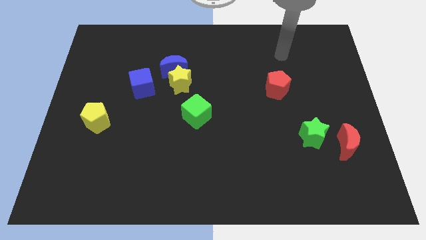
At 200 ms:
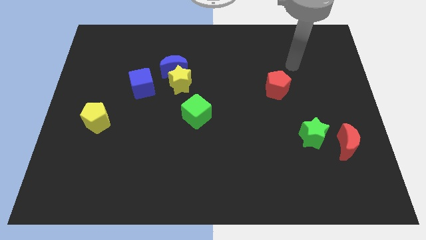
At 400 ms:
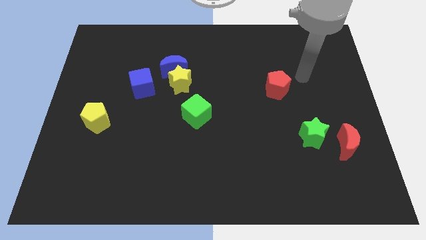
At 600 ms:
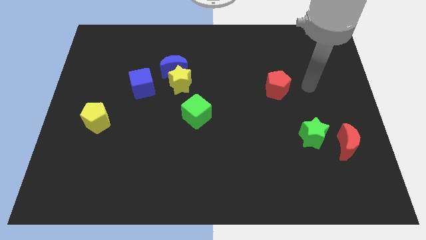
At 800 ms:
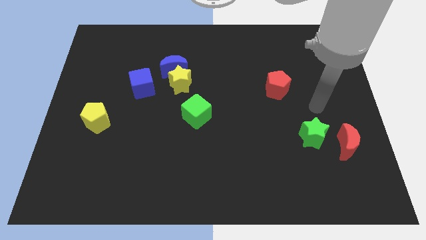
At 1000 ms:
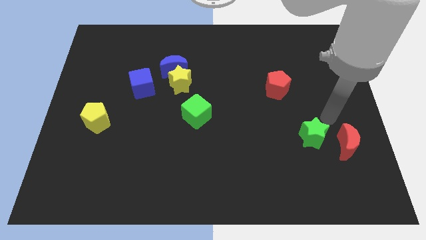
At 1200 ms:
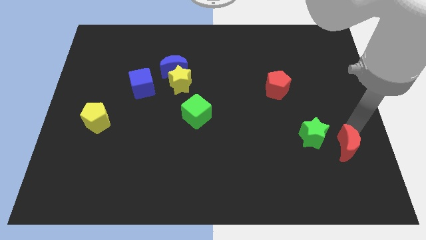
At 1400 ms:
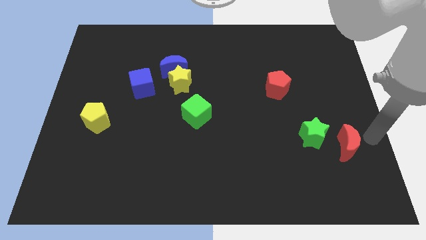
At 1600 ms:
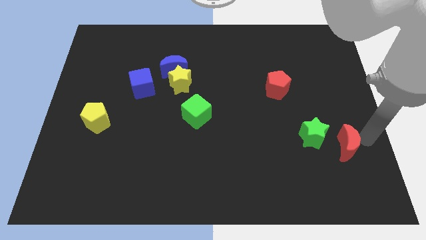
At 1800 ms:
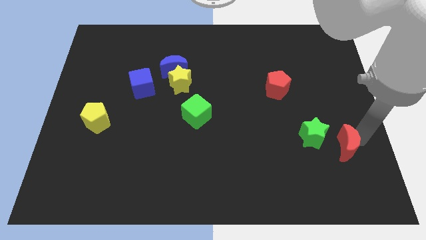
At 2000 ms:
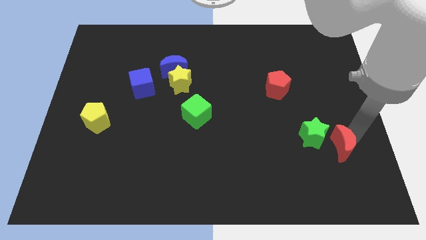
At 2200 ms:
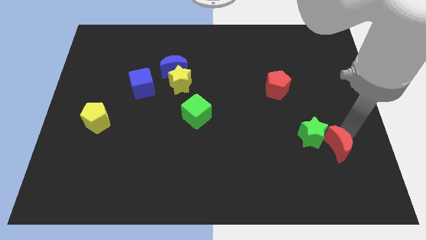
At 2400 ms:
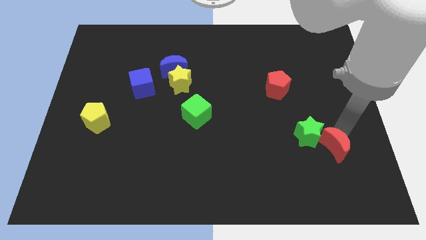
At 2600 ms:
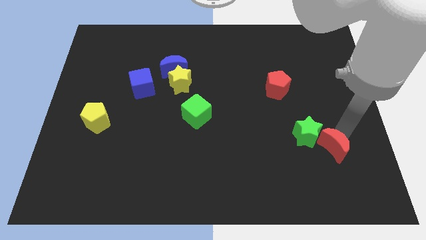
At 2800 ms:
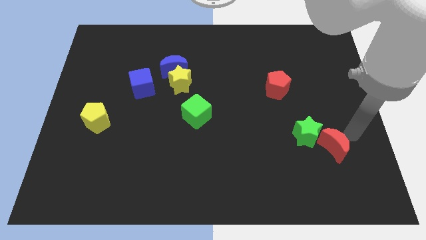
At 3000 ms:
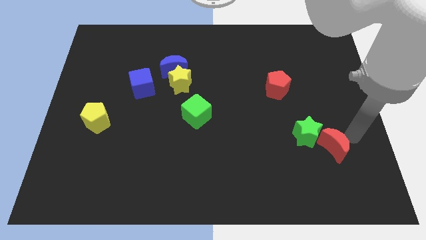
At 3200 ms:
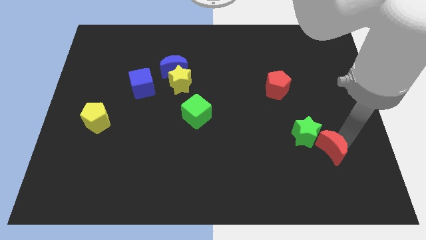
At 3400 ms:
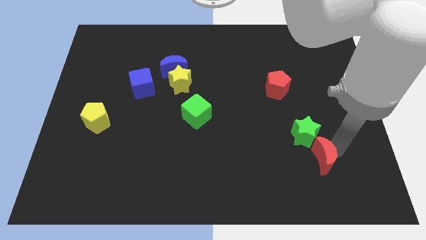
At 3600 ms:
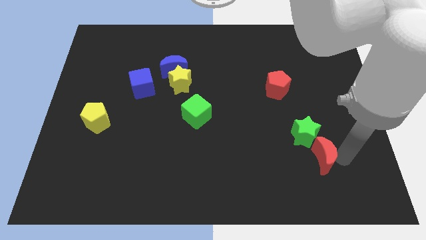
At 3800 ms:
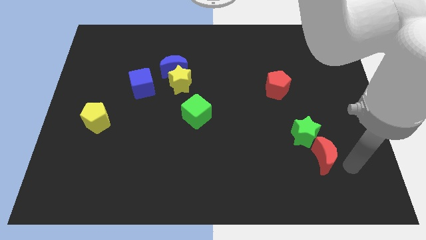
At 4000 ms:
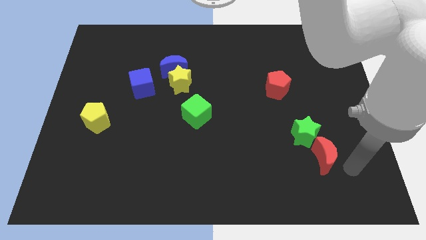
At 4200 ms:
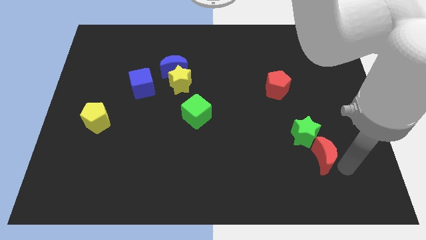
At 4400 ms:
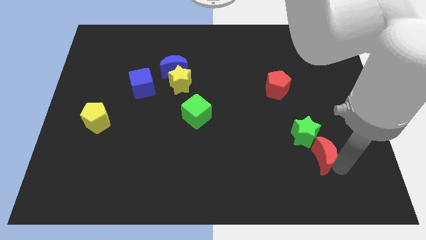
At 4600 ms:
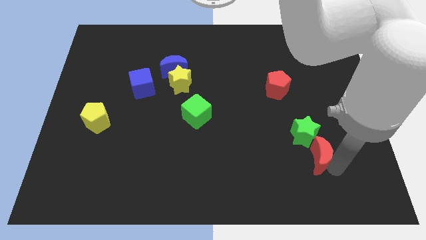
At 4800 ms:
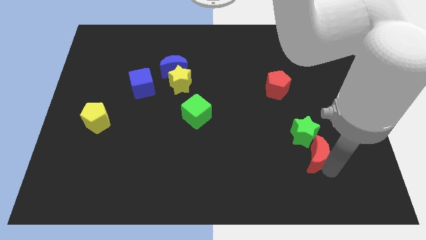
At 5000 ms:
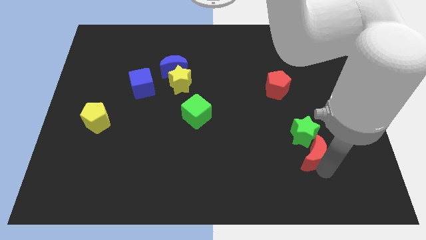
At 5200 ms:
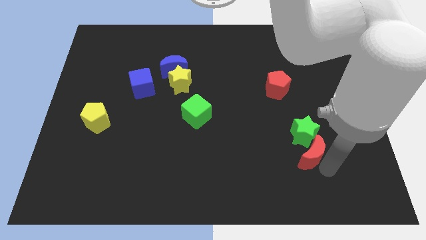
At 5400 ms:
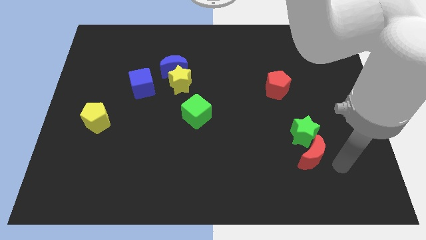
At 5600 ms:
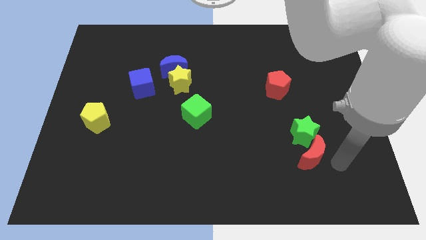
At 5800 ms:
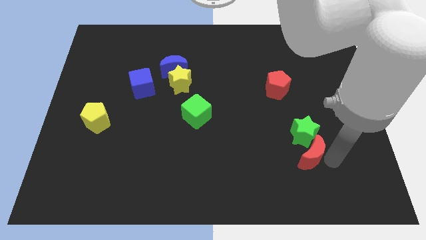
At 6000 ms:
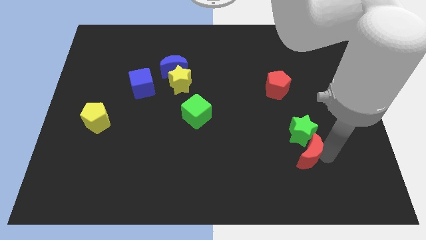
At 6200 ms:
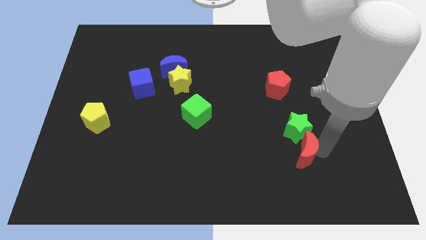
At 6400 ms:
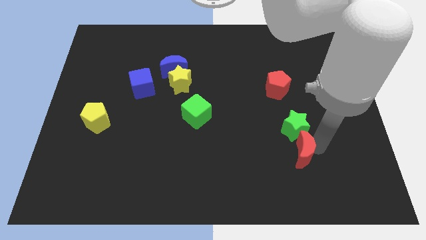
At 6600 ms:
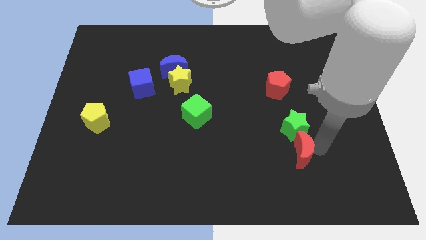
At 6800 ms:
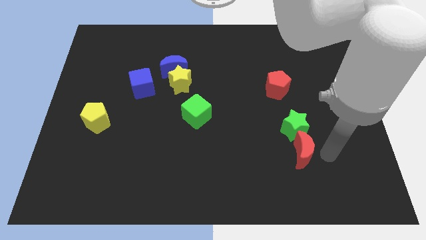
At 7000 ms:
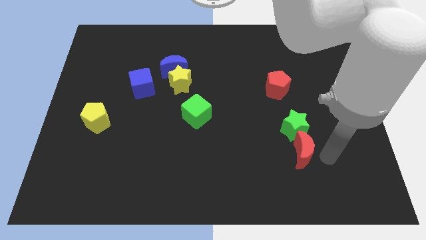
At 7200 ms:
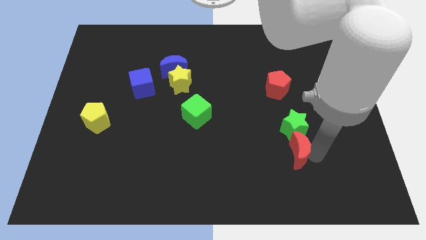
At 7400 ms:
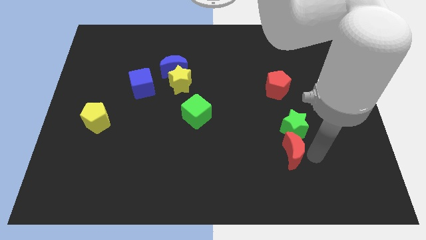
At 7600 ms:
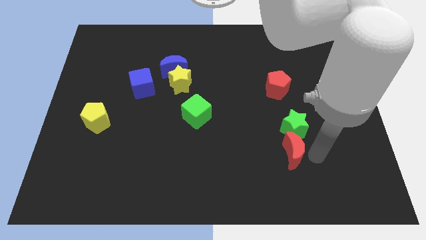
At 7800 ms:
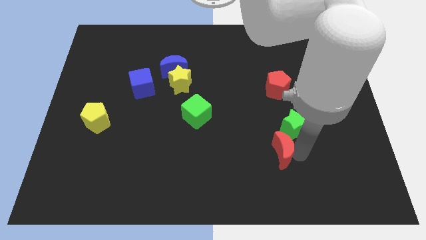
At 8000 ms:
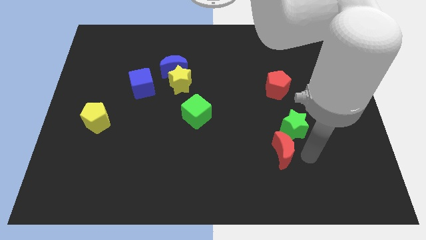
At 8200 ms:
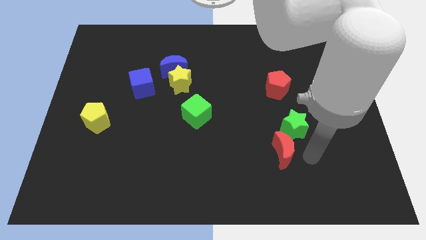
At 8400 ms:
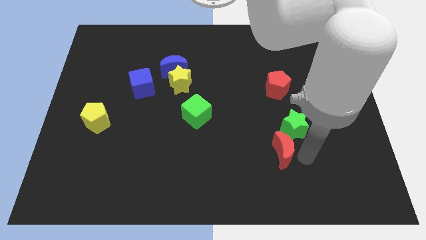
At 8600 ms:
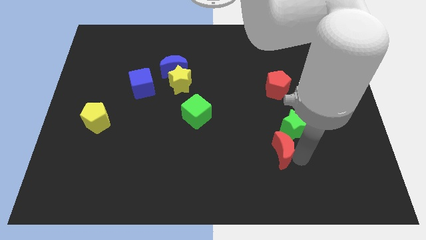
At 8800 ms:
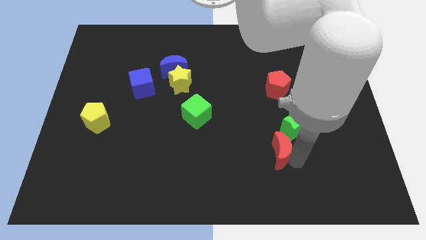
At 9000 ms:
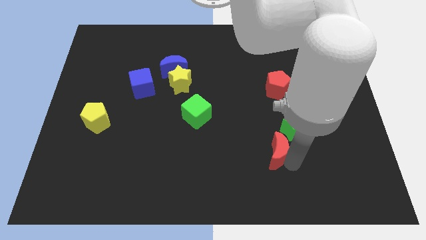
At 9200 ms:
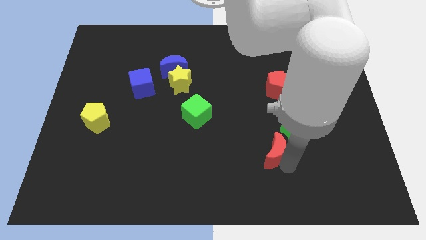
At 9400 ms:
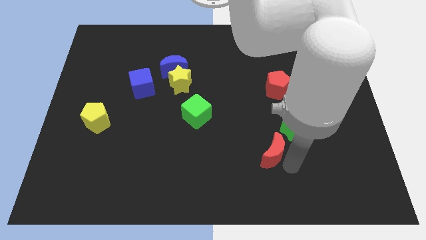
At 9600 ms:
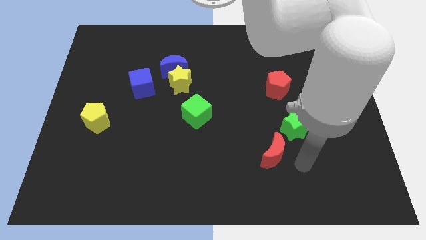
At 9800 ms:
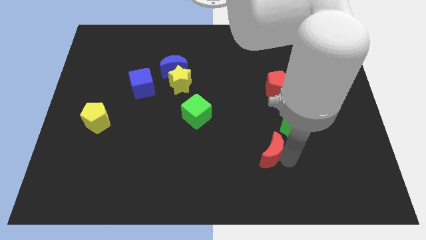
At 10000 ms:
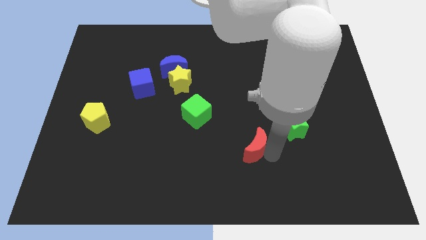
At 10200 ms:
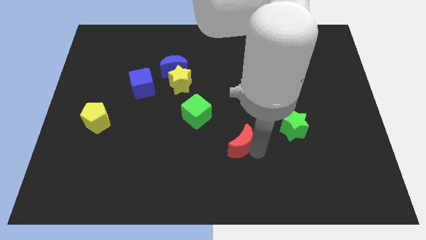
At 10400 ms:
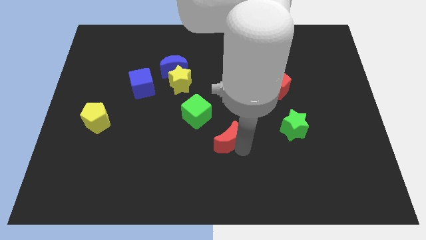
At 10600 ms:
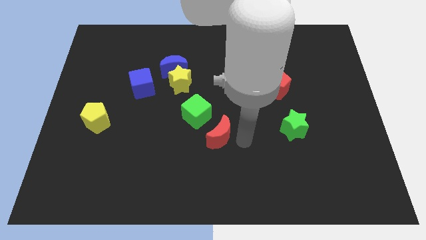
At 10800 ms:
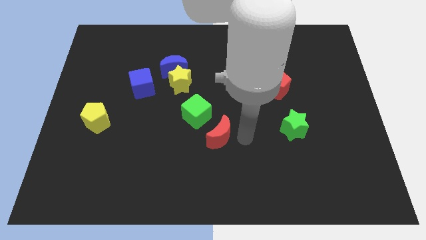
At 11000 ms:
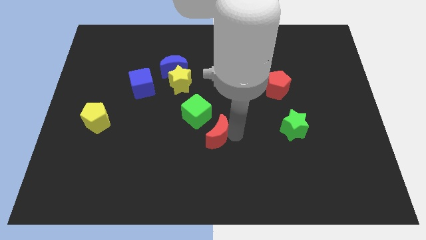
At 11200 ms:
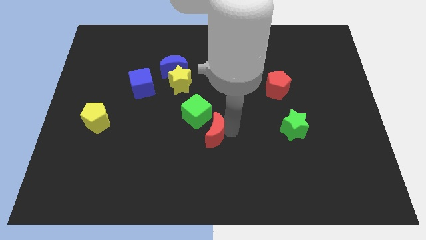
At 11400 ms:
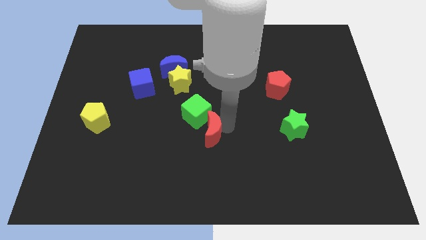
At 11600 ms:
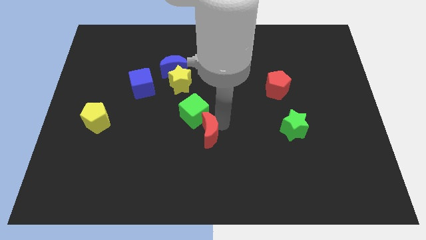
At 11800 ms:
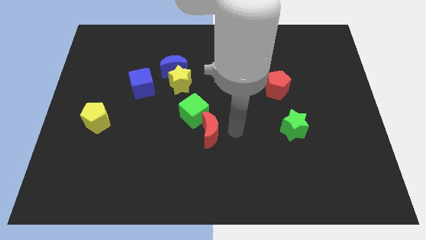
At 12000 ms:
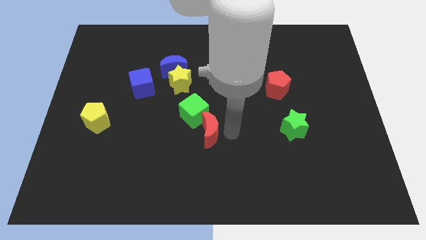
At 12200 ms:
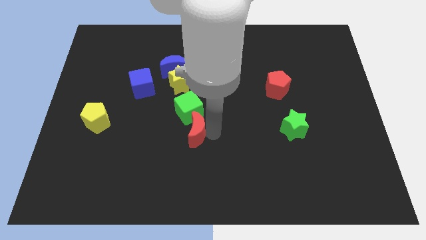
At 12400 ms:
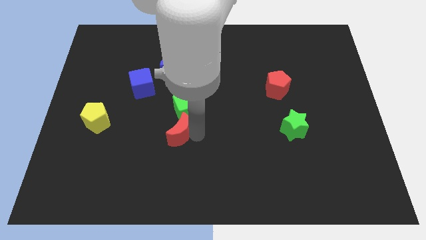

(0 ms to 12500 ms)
move the red moon diagonally down and to the left of the green cube
